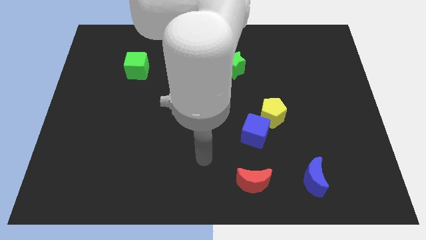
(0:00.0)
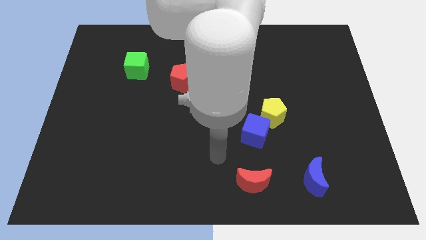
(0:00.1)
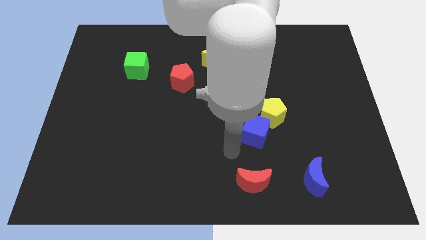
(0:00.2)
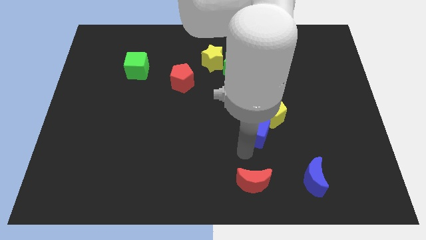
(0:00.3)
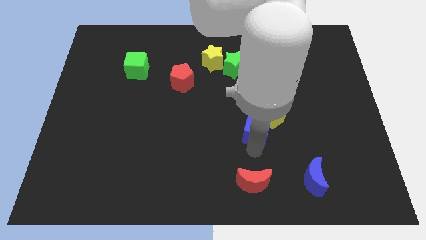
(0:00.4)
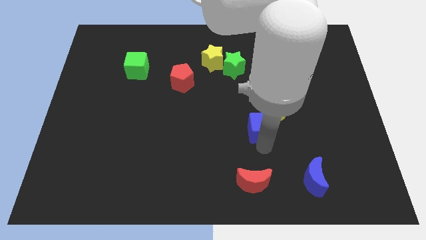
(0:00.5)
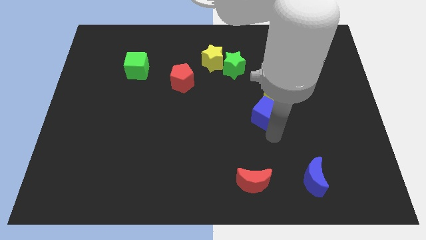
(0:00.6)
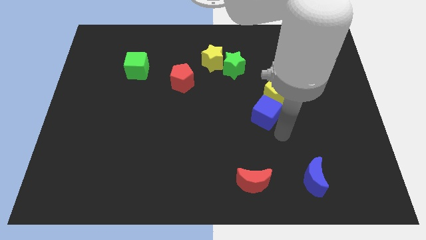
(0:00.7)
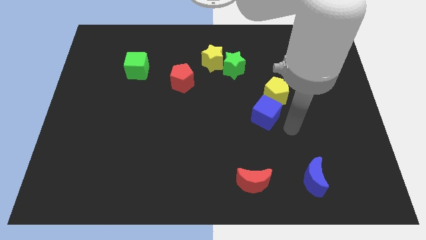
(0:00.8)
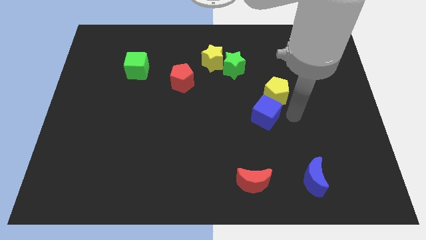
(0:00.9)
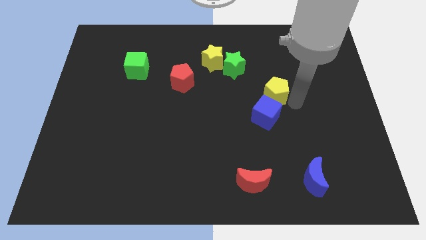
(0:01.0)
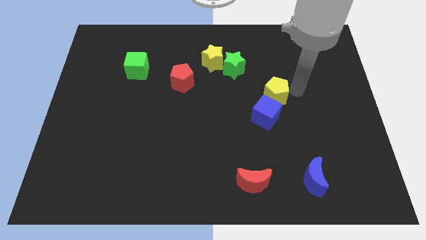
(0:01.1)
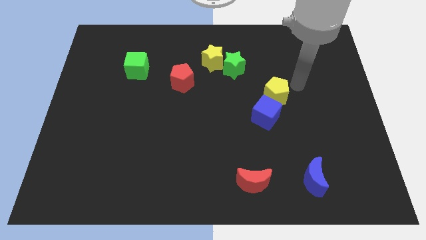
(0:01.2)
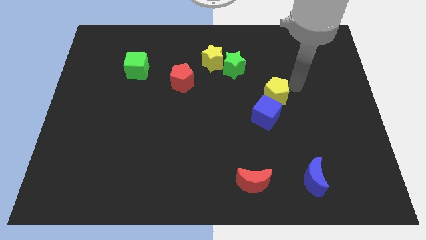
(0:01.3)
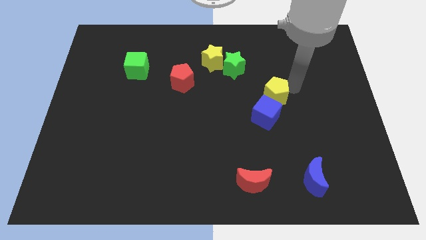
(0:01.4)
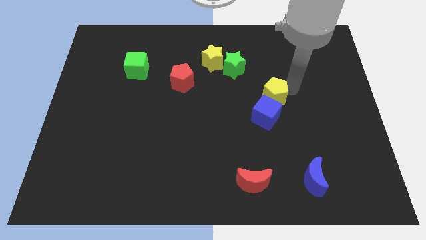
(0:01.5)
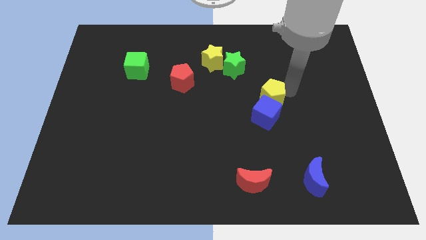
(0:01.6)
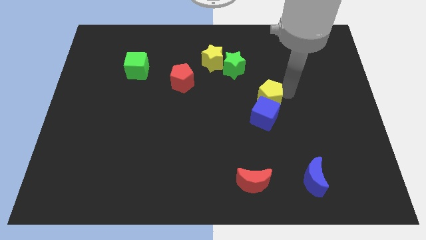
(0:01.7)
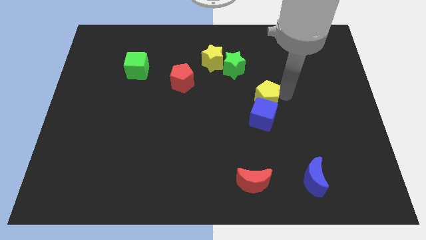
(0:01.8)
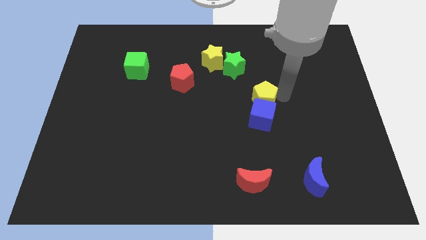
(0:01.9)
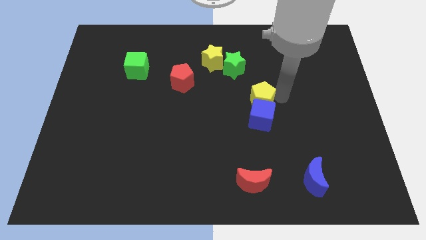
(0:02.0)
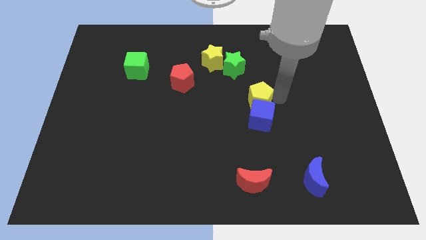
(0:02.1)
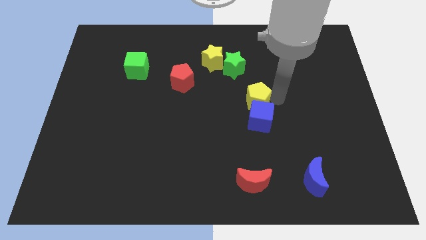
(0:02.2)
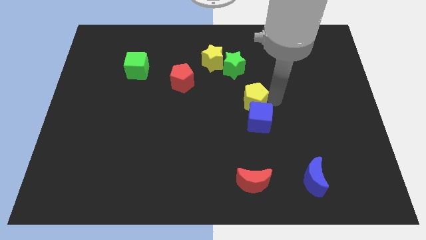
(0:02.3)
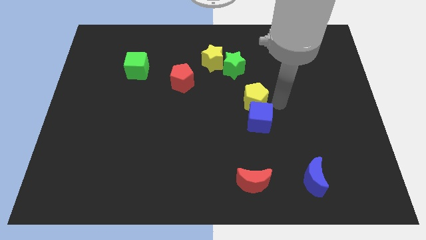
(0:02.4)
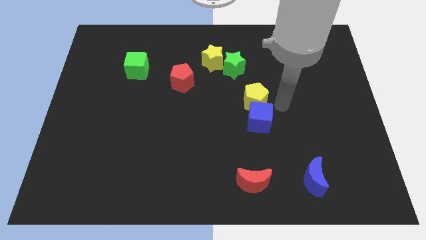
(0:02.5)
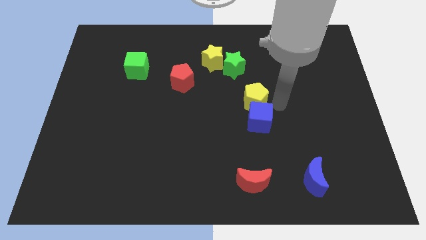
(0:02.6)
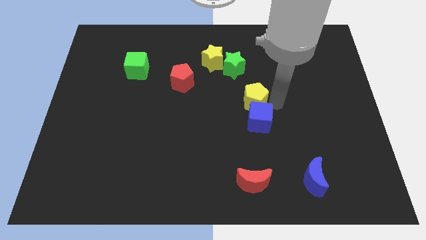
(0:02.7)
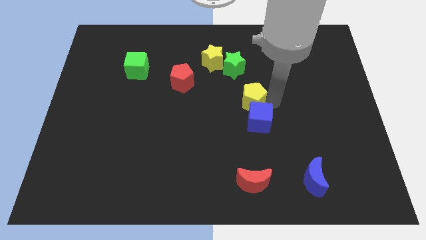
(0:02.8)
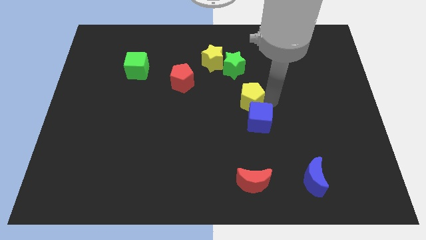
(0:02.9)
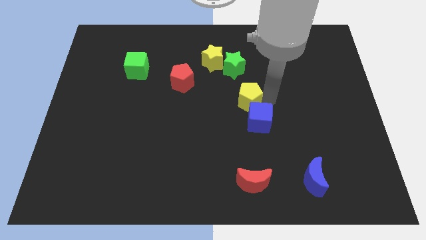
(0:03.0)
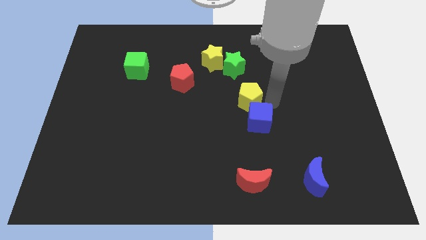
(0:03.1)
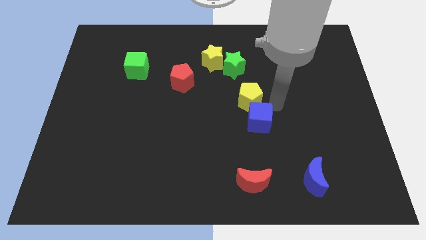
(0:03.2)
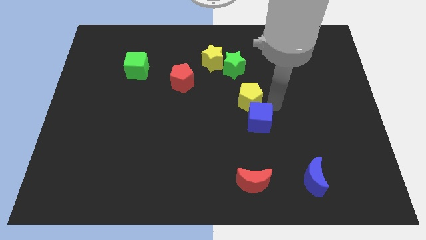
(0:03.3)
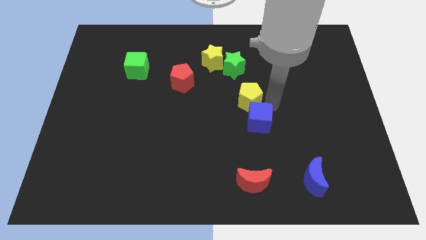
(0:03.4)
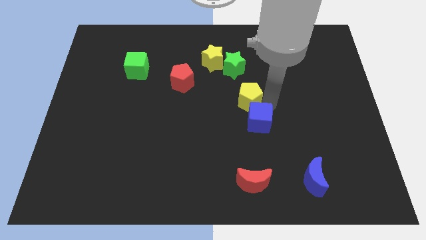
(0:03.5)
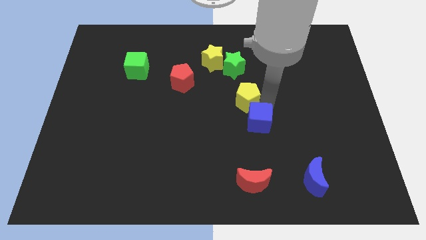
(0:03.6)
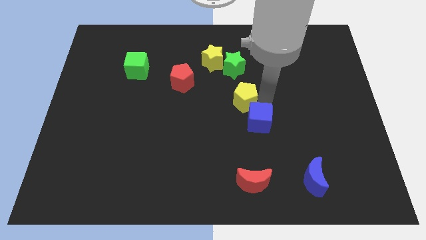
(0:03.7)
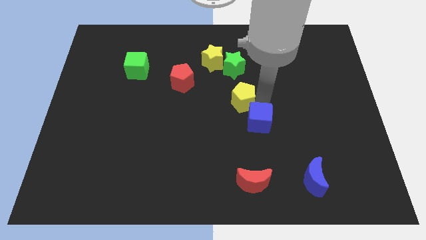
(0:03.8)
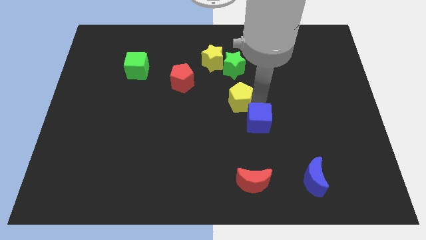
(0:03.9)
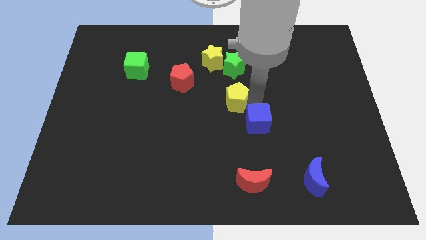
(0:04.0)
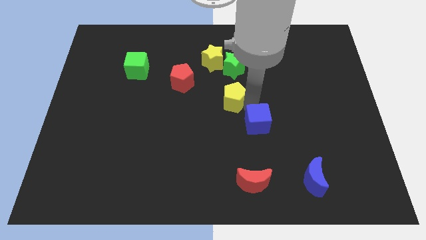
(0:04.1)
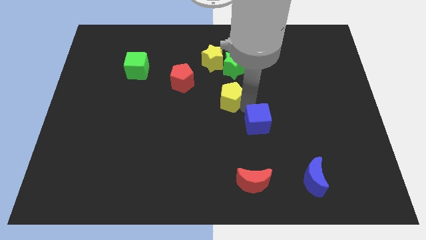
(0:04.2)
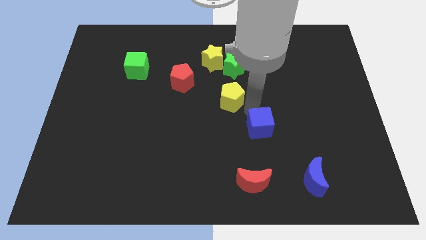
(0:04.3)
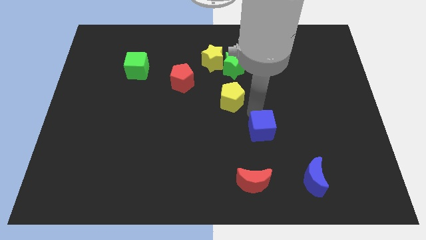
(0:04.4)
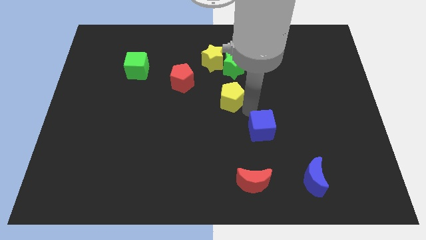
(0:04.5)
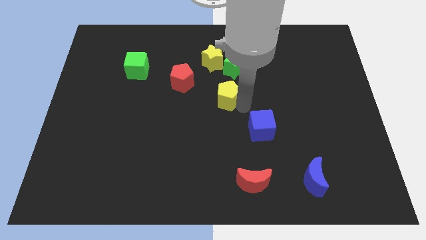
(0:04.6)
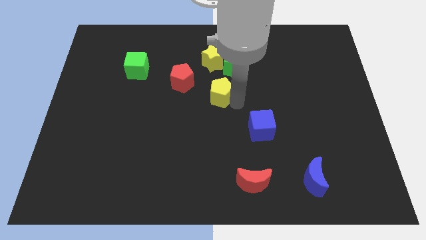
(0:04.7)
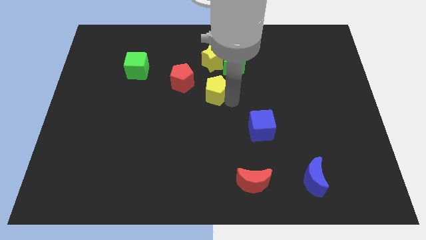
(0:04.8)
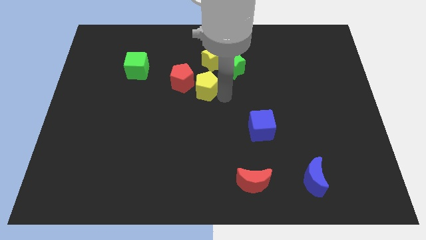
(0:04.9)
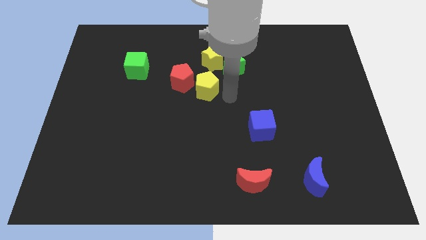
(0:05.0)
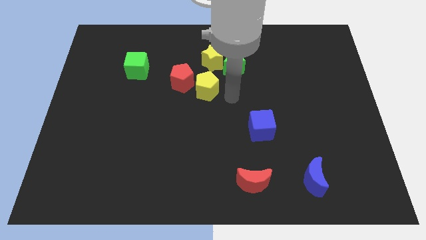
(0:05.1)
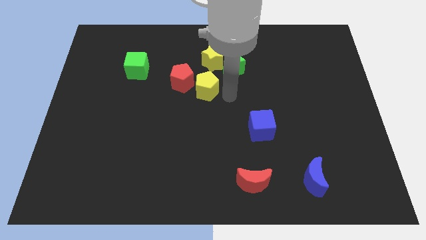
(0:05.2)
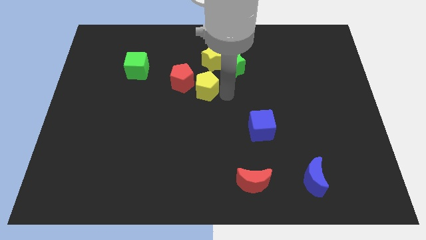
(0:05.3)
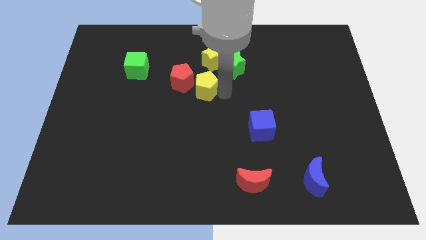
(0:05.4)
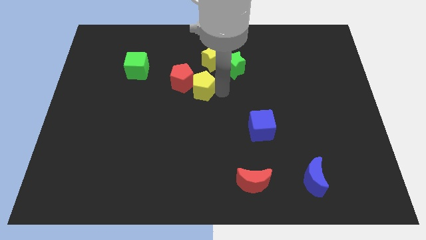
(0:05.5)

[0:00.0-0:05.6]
move the yellow pentagon close to the red pentagon

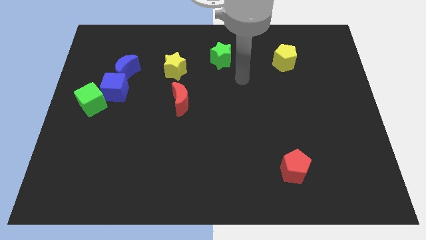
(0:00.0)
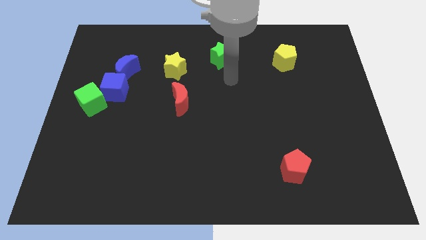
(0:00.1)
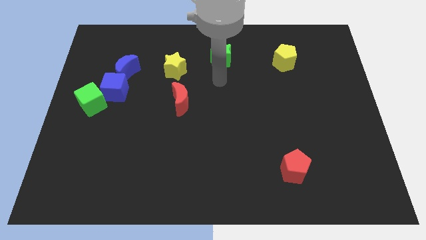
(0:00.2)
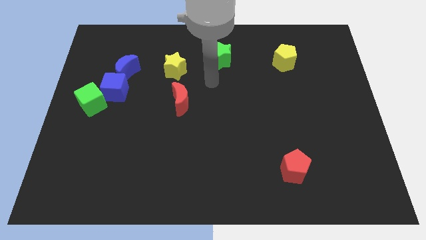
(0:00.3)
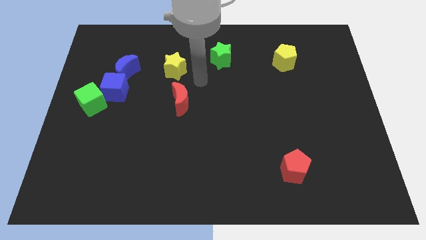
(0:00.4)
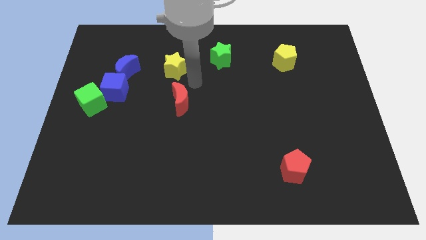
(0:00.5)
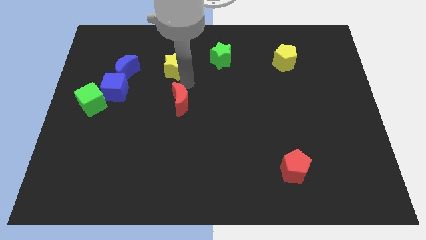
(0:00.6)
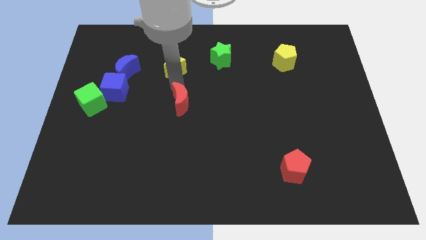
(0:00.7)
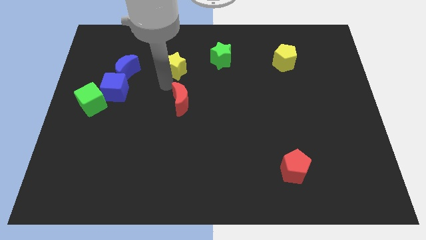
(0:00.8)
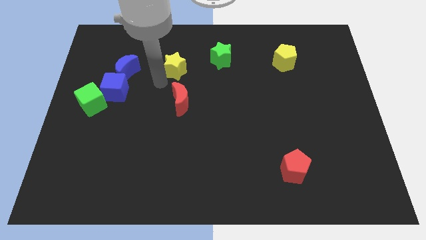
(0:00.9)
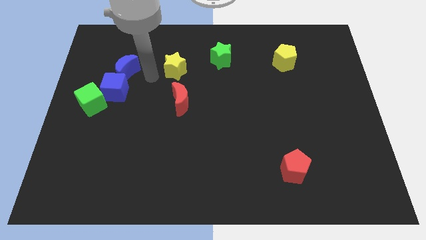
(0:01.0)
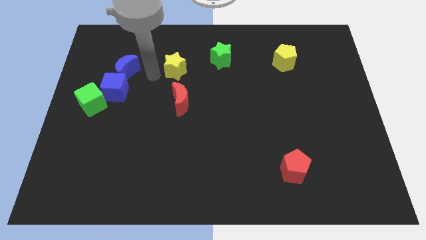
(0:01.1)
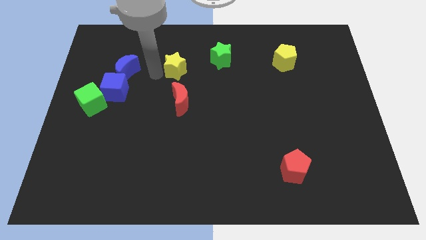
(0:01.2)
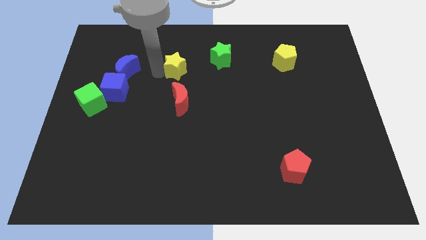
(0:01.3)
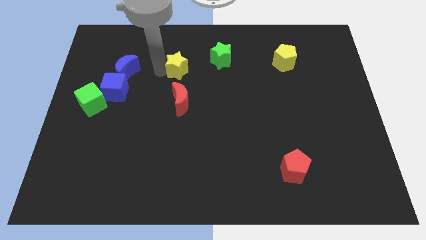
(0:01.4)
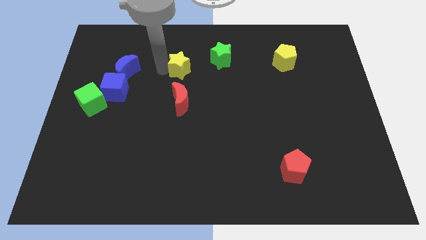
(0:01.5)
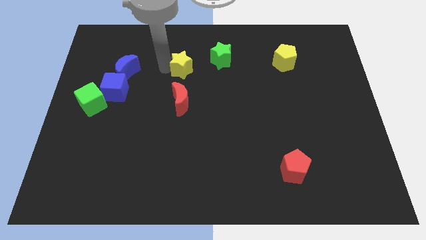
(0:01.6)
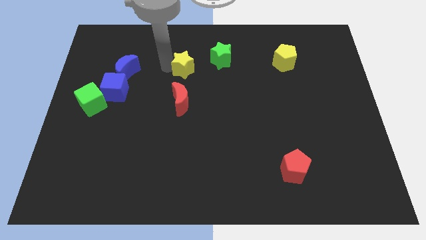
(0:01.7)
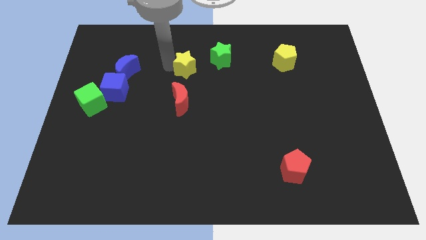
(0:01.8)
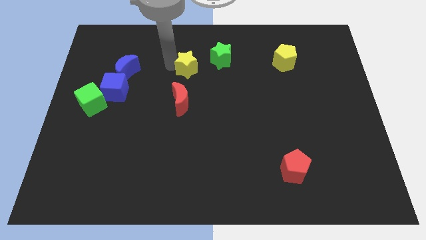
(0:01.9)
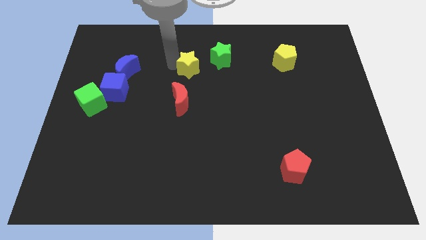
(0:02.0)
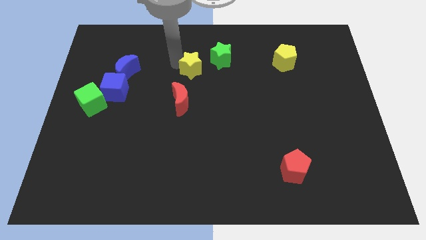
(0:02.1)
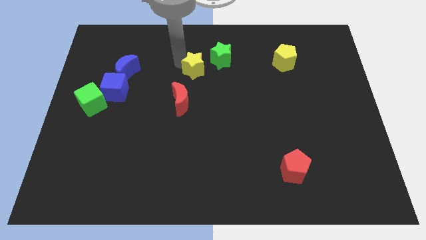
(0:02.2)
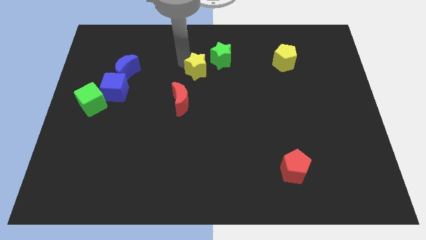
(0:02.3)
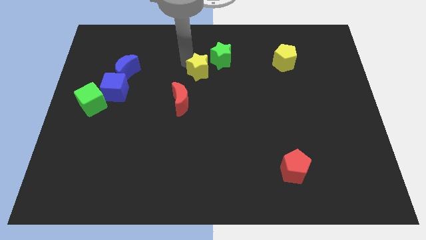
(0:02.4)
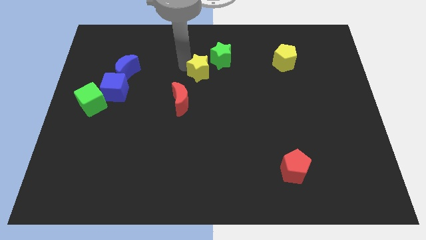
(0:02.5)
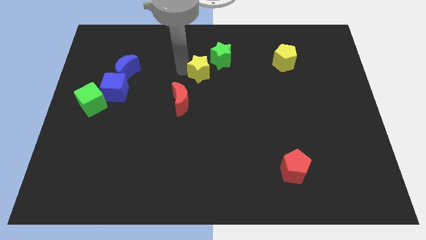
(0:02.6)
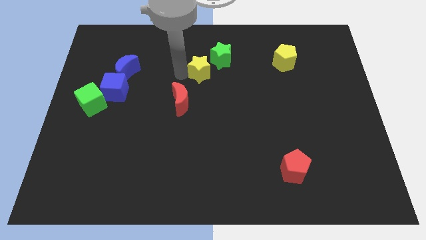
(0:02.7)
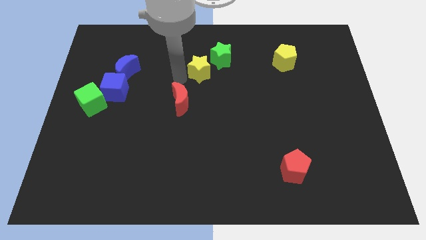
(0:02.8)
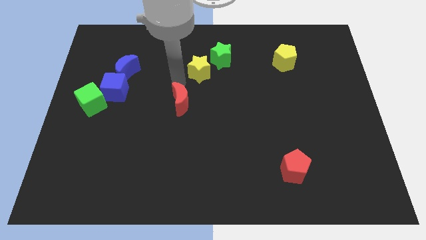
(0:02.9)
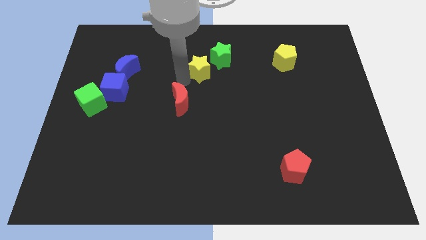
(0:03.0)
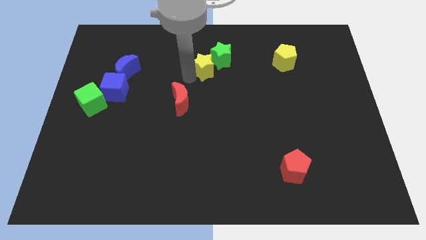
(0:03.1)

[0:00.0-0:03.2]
put the yellow star towards the green star
